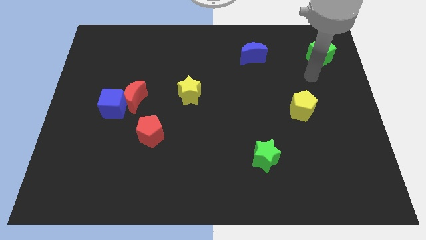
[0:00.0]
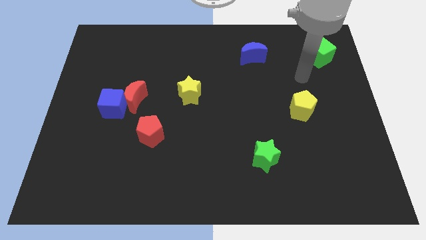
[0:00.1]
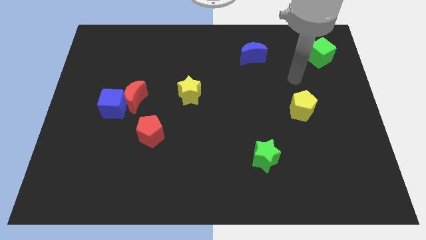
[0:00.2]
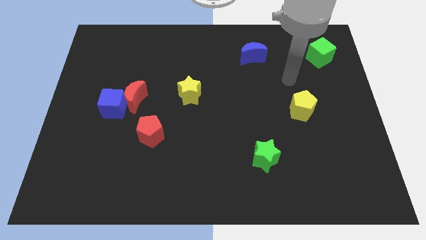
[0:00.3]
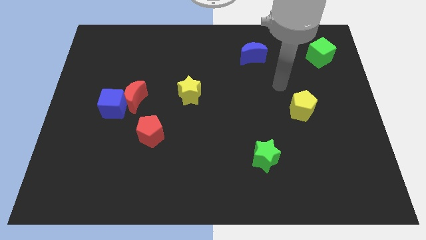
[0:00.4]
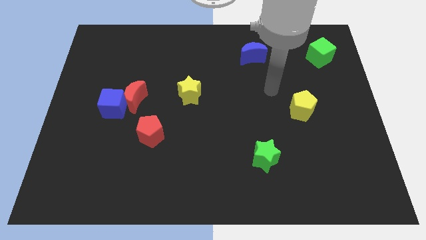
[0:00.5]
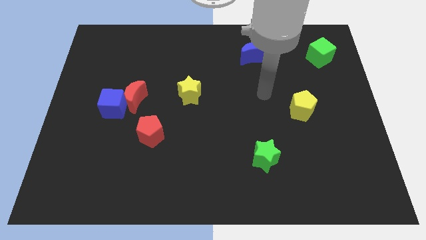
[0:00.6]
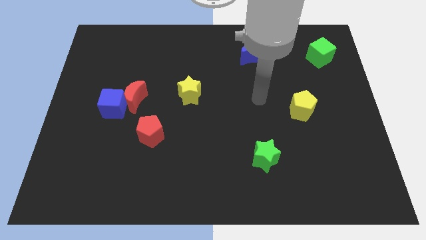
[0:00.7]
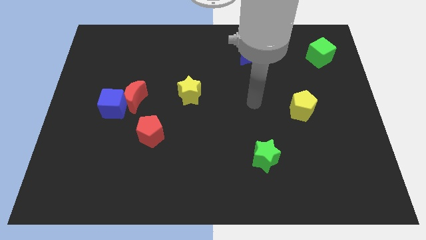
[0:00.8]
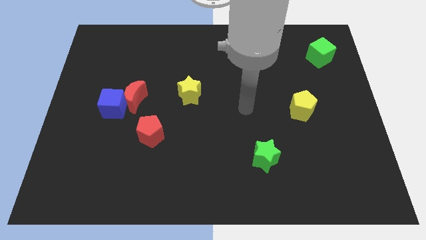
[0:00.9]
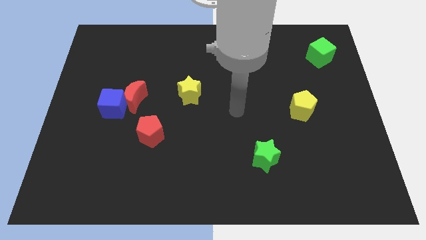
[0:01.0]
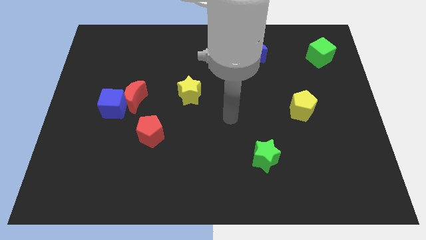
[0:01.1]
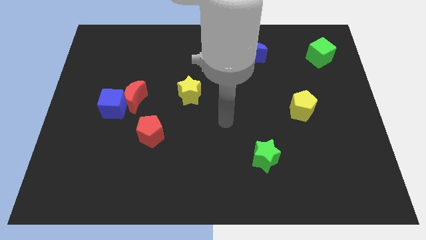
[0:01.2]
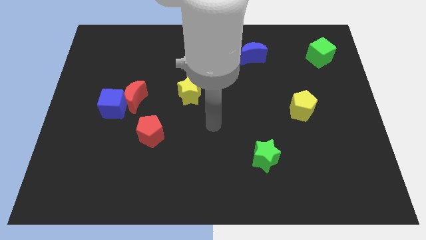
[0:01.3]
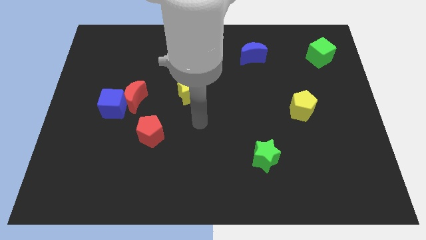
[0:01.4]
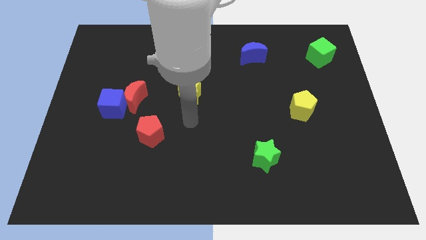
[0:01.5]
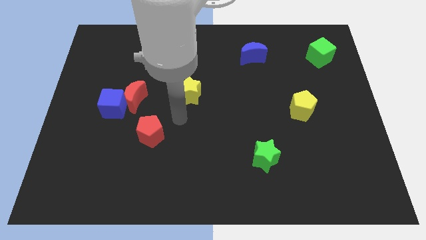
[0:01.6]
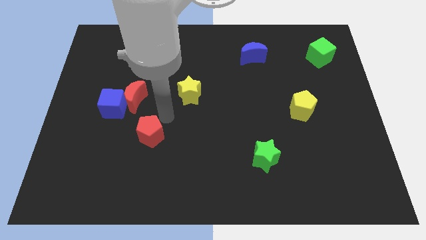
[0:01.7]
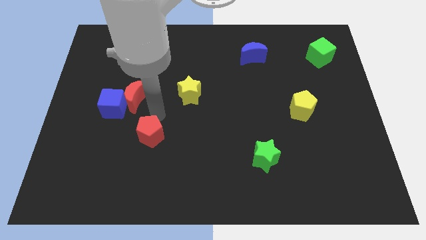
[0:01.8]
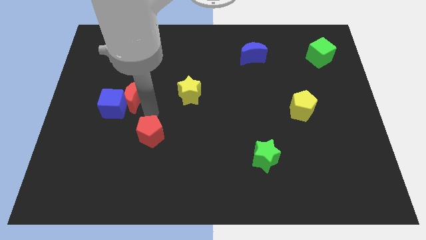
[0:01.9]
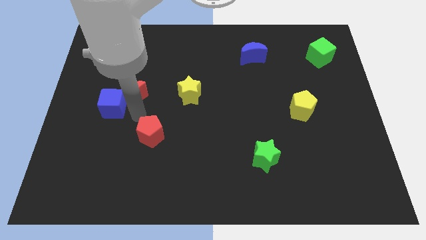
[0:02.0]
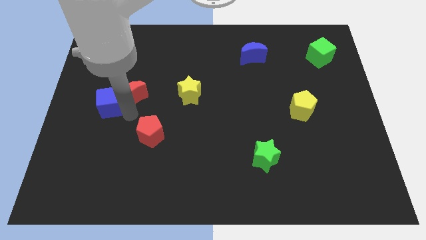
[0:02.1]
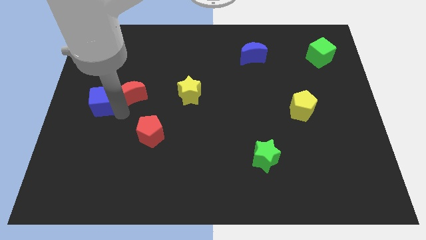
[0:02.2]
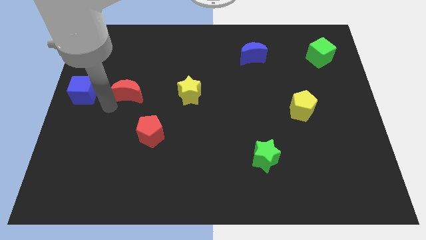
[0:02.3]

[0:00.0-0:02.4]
move the red moon away from the blue cube

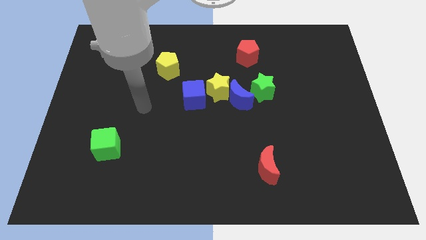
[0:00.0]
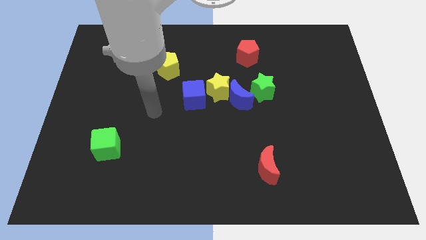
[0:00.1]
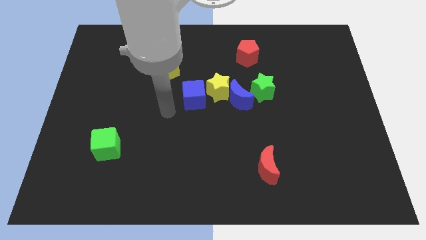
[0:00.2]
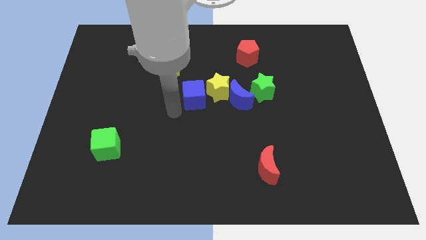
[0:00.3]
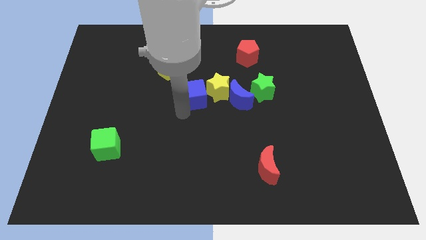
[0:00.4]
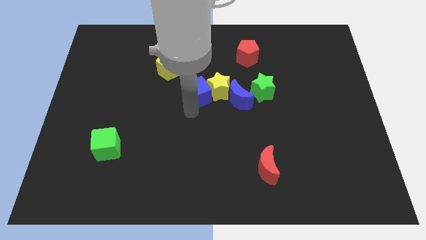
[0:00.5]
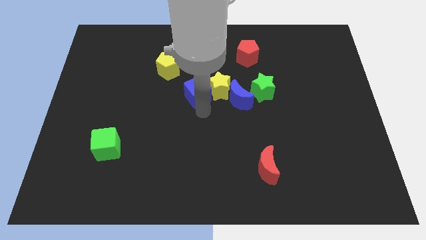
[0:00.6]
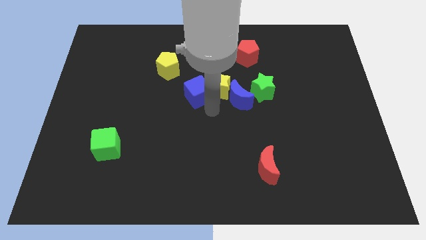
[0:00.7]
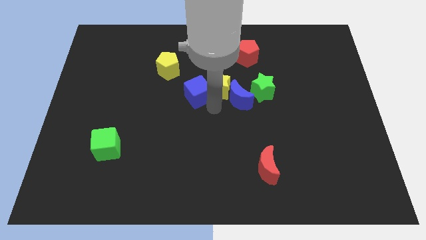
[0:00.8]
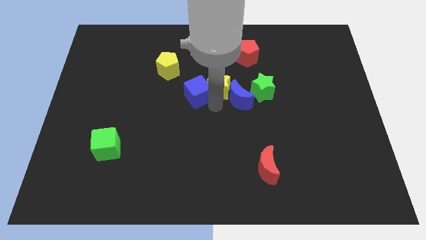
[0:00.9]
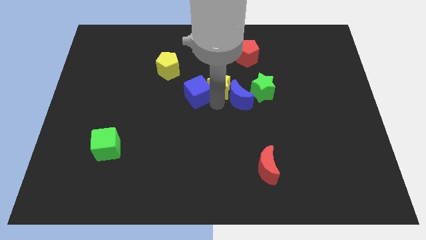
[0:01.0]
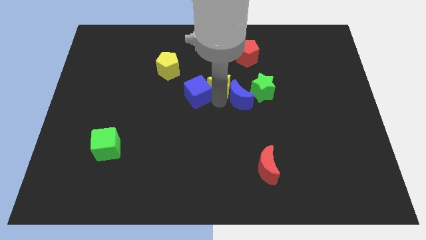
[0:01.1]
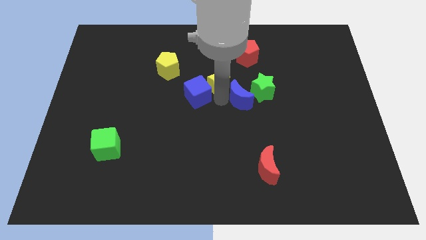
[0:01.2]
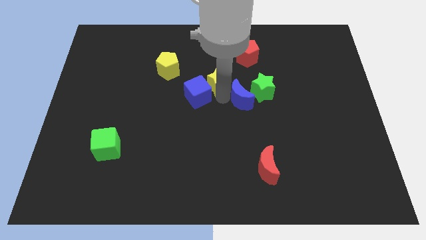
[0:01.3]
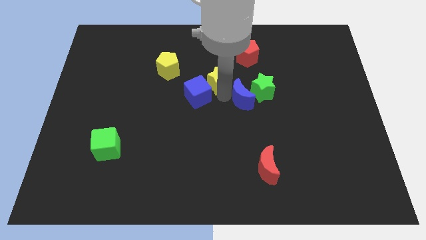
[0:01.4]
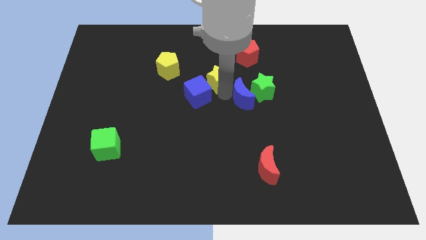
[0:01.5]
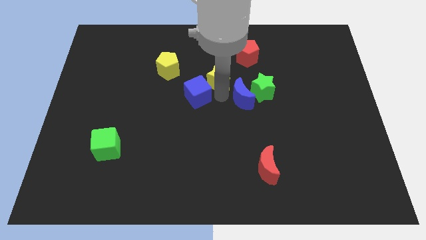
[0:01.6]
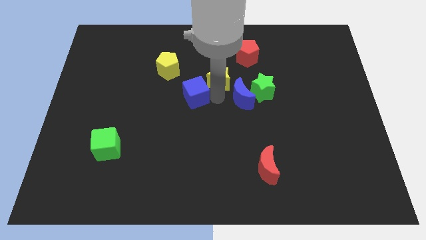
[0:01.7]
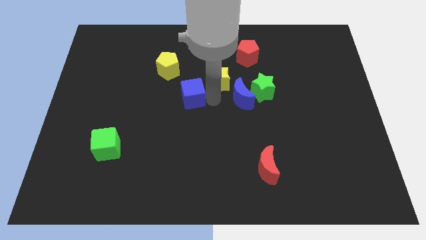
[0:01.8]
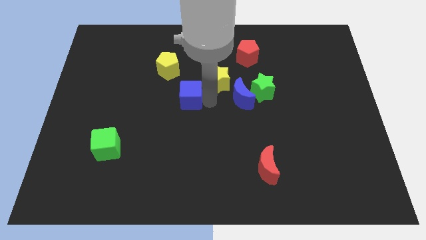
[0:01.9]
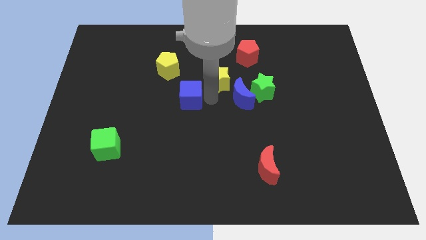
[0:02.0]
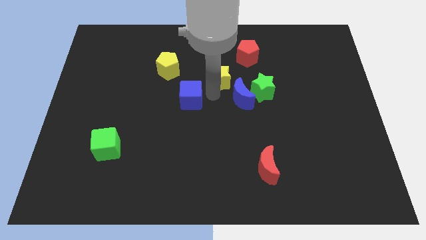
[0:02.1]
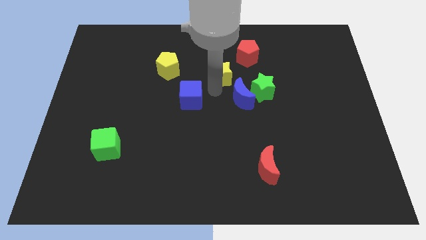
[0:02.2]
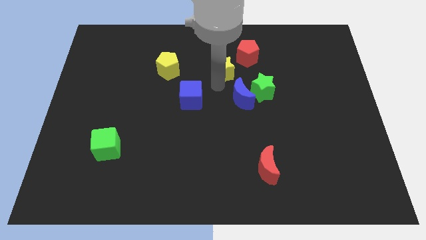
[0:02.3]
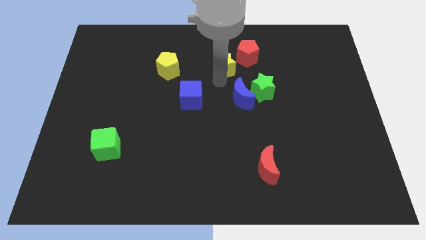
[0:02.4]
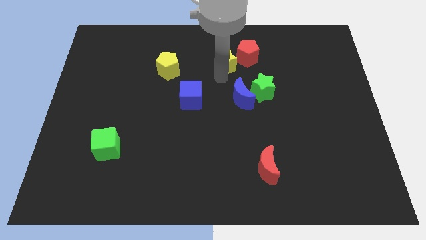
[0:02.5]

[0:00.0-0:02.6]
pull the yellow star apart from the blue moon and blue cube

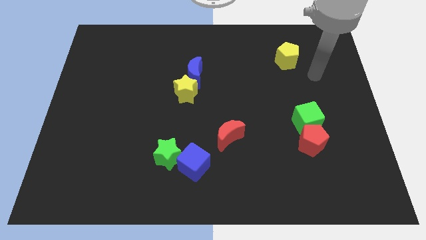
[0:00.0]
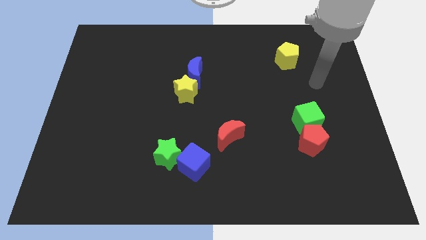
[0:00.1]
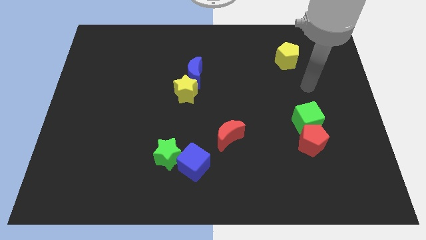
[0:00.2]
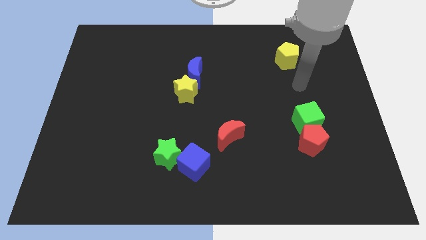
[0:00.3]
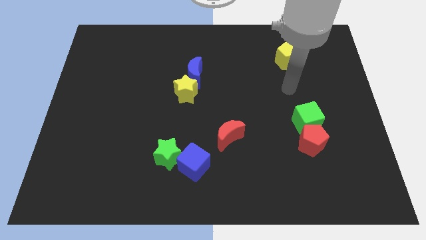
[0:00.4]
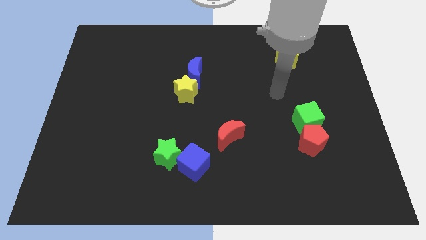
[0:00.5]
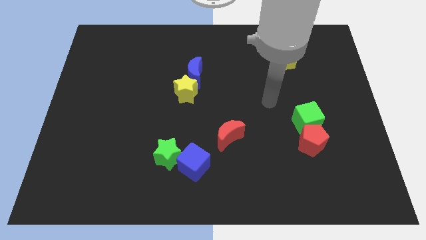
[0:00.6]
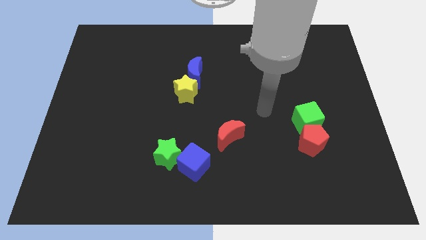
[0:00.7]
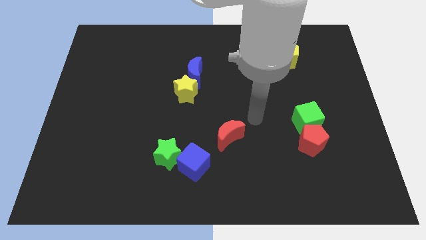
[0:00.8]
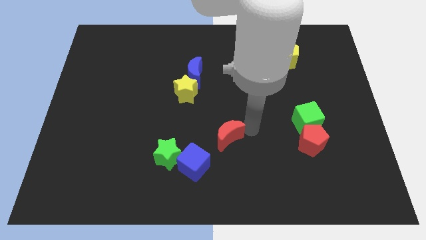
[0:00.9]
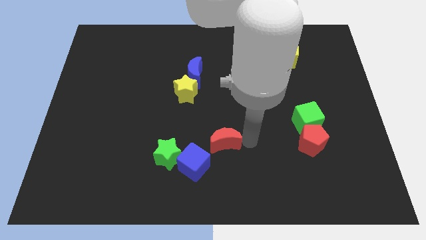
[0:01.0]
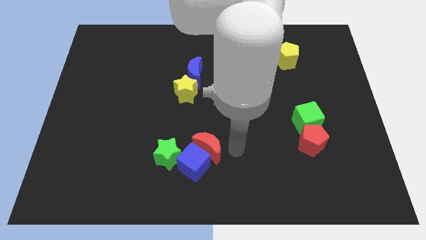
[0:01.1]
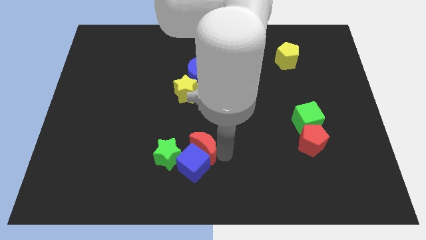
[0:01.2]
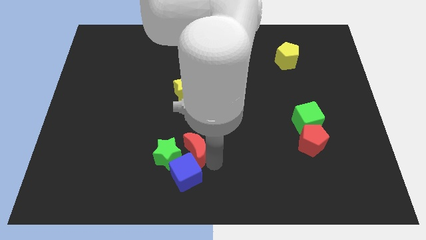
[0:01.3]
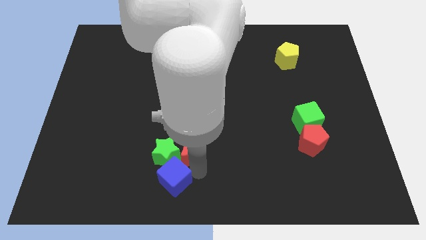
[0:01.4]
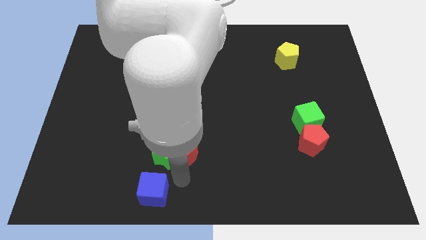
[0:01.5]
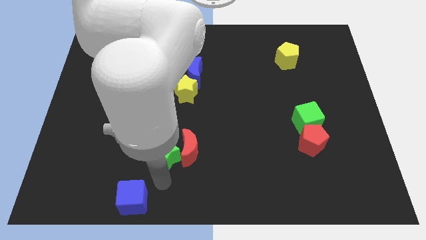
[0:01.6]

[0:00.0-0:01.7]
pull the green star apart from the blue cube

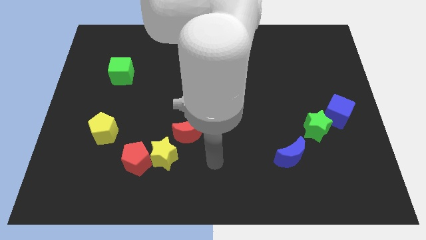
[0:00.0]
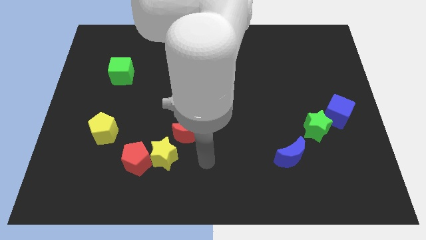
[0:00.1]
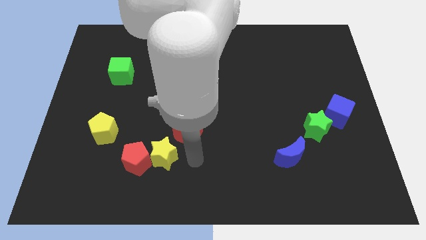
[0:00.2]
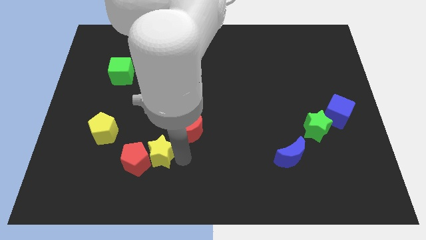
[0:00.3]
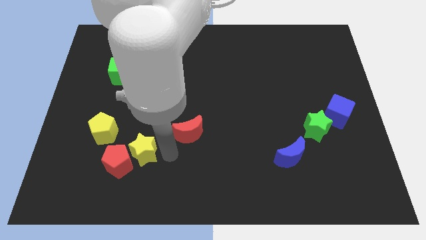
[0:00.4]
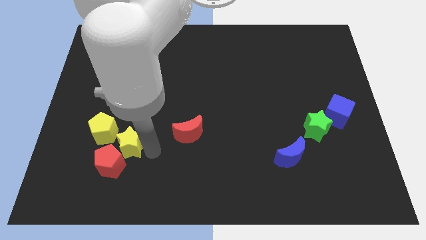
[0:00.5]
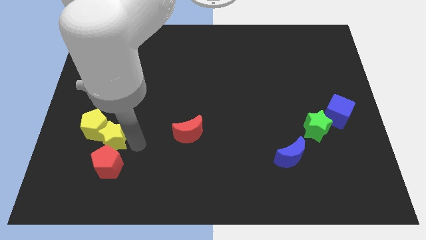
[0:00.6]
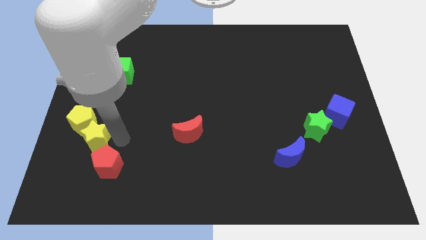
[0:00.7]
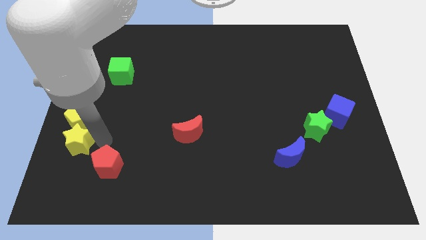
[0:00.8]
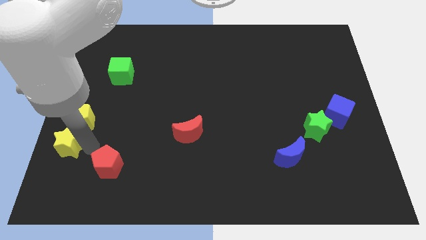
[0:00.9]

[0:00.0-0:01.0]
move the red pentagon away from the yellow star

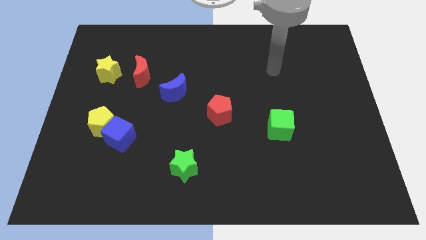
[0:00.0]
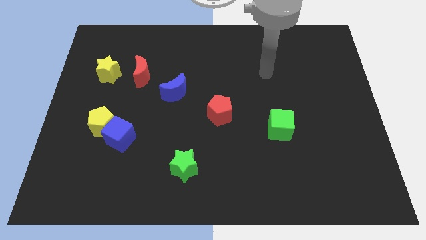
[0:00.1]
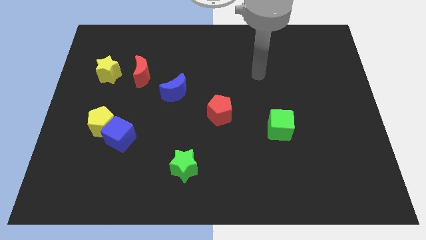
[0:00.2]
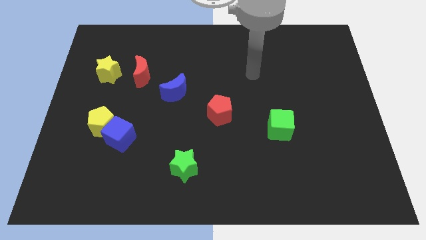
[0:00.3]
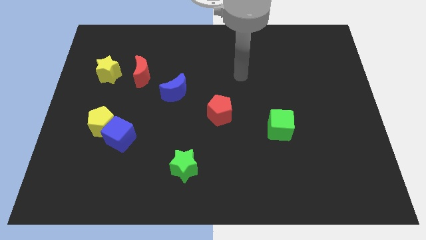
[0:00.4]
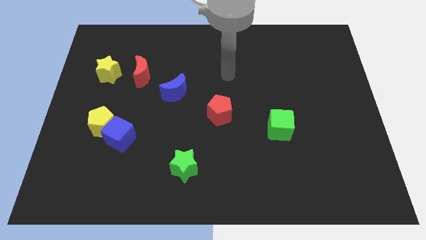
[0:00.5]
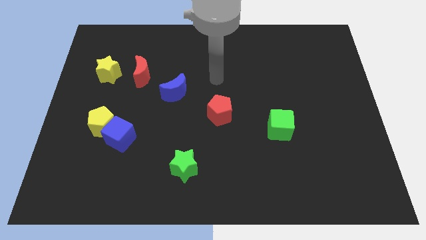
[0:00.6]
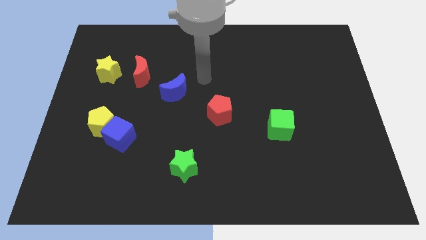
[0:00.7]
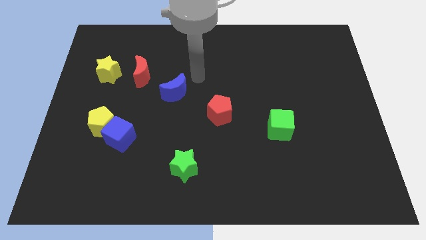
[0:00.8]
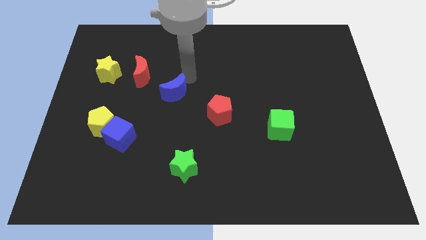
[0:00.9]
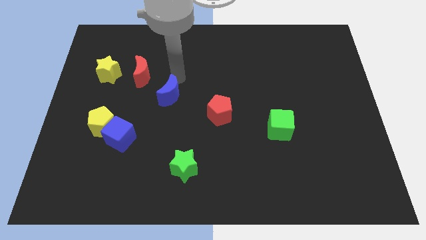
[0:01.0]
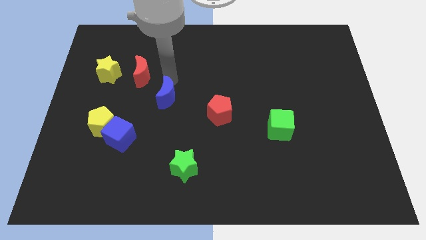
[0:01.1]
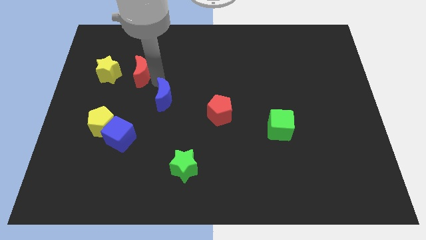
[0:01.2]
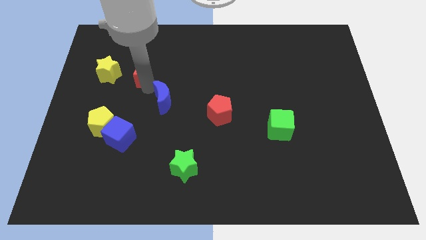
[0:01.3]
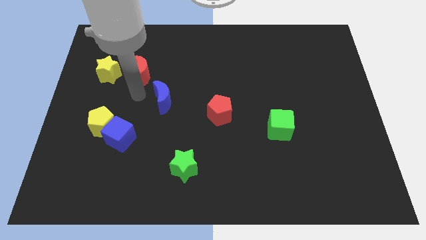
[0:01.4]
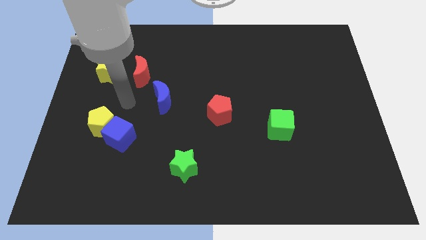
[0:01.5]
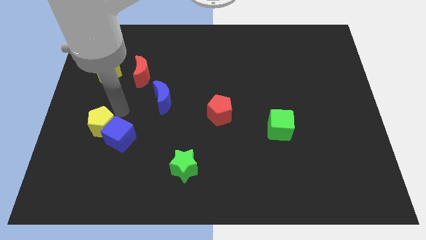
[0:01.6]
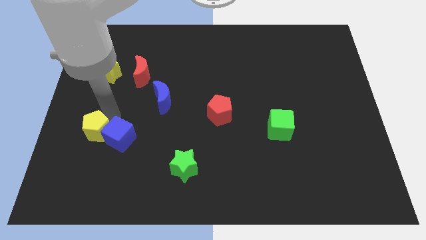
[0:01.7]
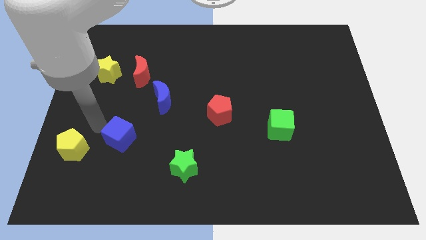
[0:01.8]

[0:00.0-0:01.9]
separate the blue cube from the yellow pentagon
